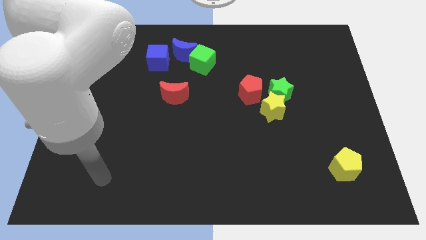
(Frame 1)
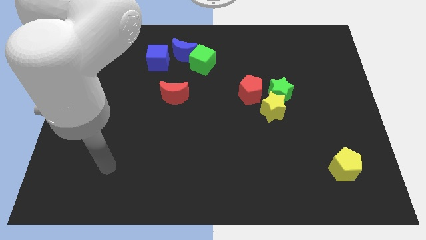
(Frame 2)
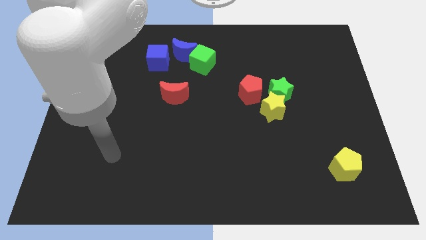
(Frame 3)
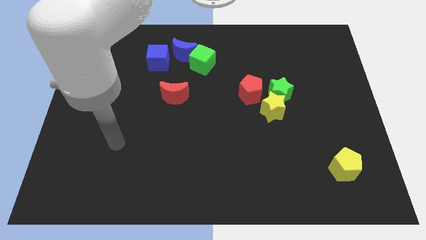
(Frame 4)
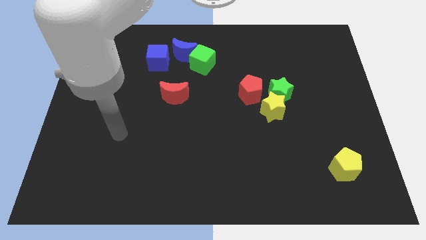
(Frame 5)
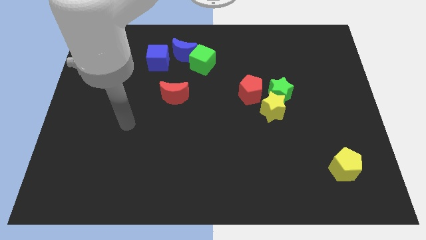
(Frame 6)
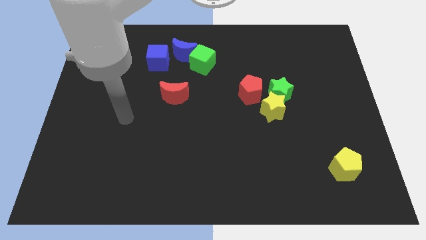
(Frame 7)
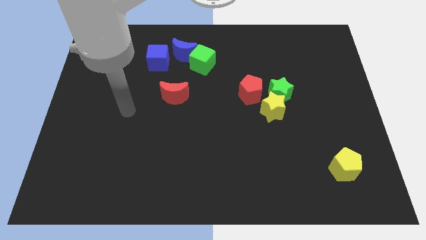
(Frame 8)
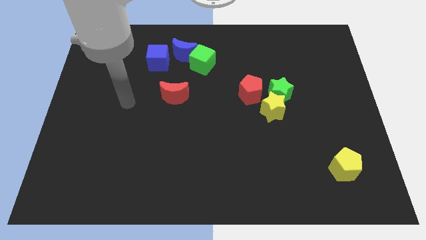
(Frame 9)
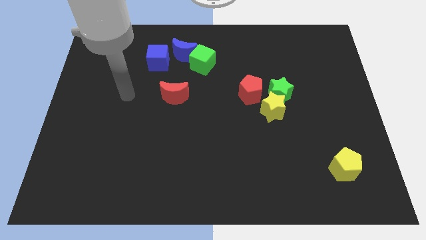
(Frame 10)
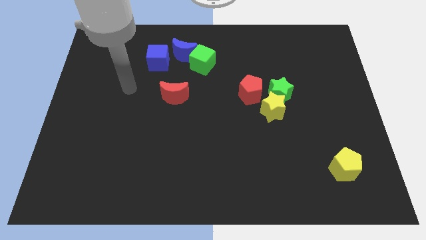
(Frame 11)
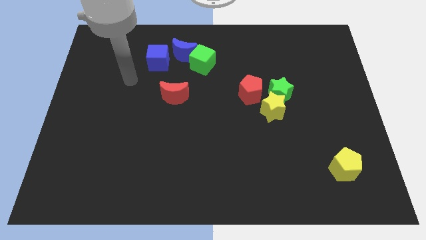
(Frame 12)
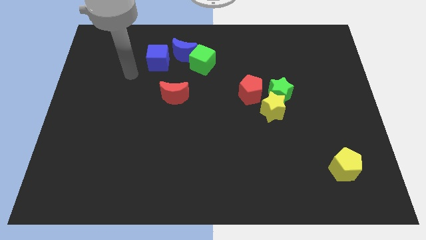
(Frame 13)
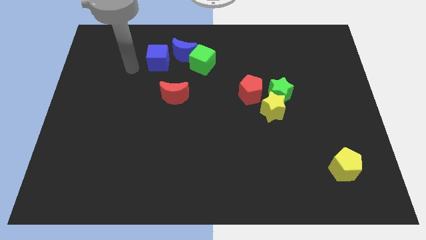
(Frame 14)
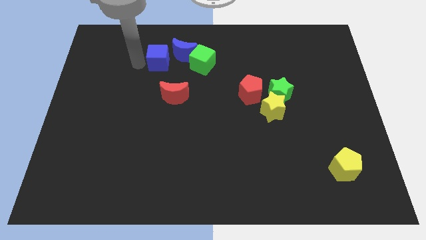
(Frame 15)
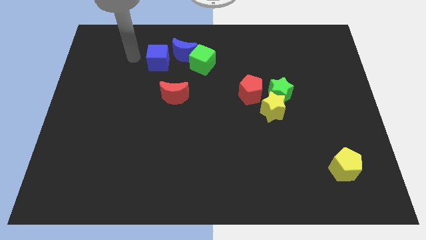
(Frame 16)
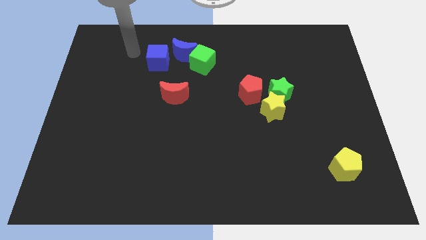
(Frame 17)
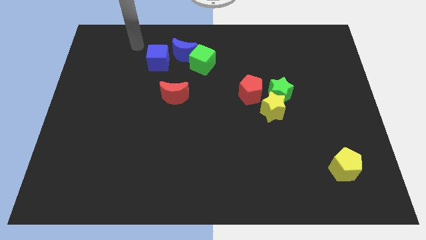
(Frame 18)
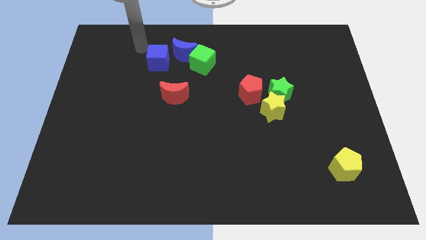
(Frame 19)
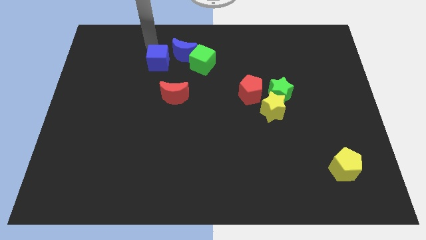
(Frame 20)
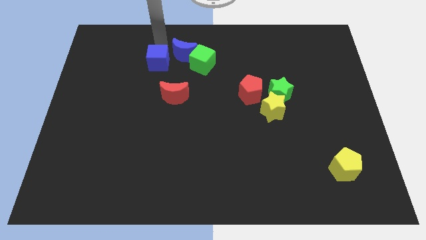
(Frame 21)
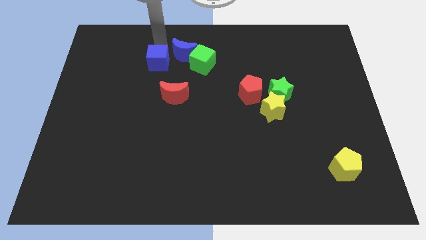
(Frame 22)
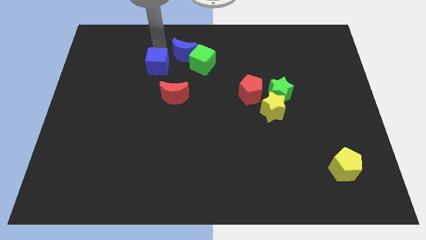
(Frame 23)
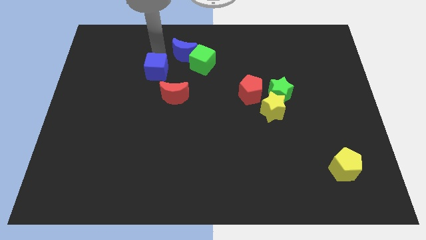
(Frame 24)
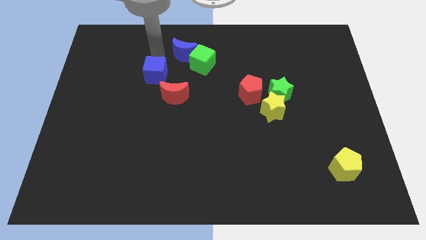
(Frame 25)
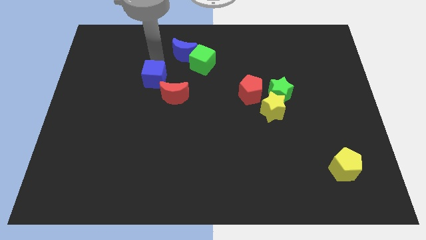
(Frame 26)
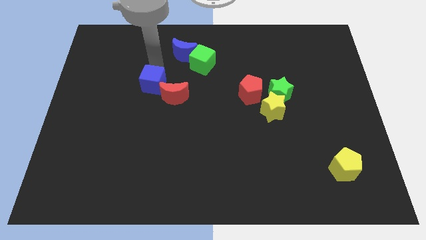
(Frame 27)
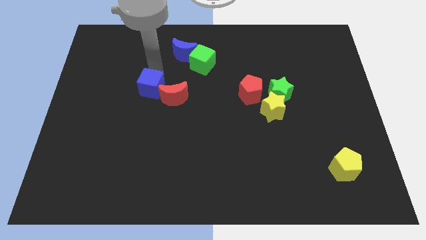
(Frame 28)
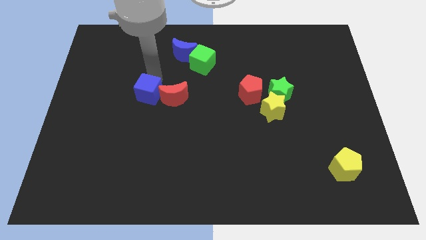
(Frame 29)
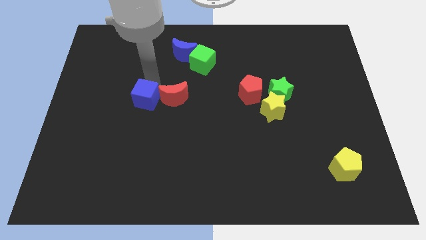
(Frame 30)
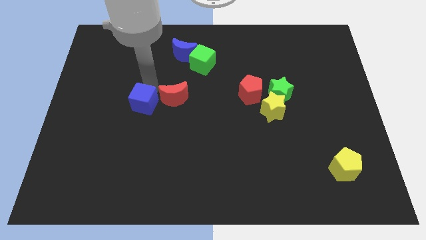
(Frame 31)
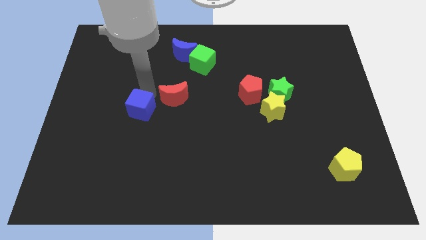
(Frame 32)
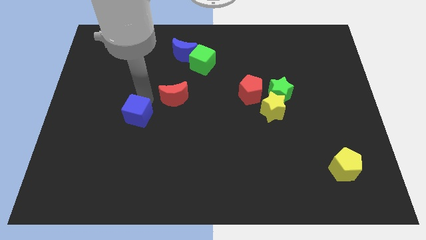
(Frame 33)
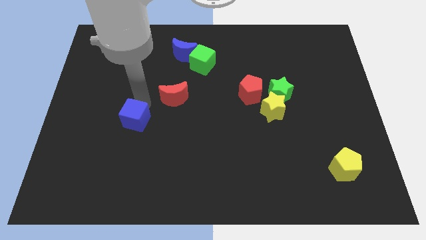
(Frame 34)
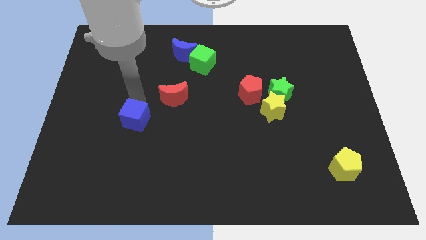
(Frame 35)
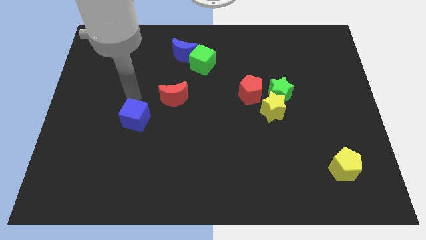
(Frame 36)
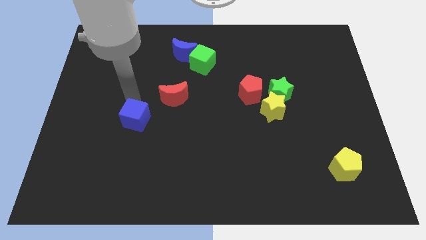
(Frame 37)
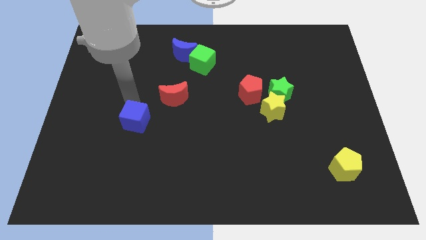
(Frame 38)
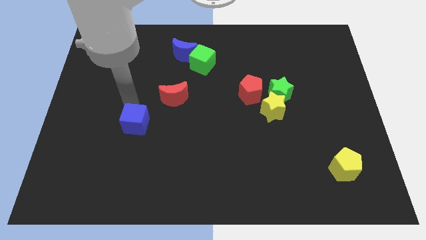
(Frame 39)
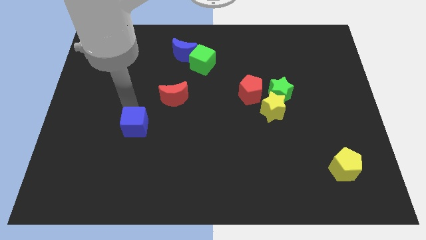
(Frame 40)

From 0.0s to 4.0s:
push the blue cube downwards

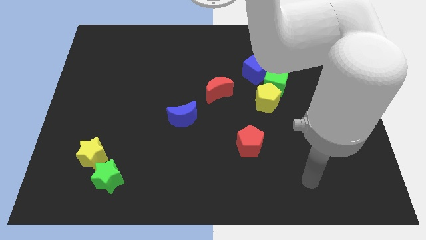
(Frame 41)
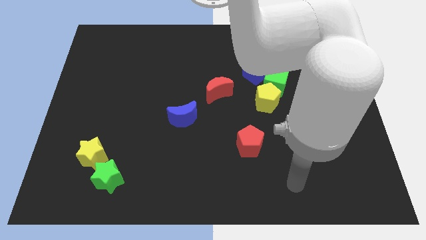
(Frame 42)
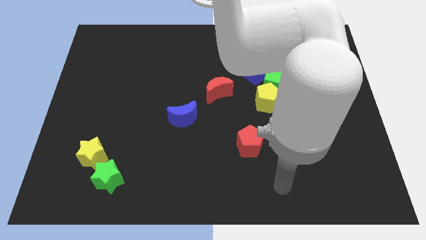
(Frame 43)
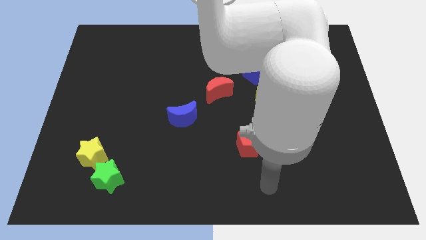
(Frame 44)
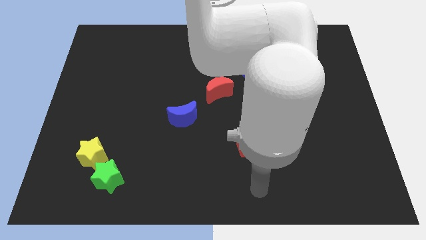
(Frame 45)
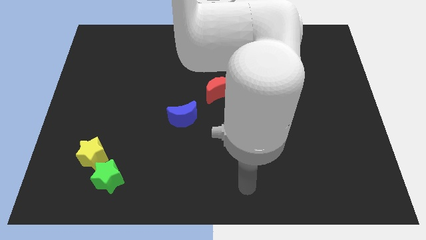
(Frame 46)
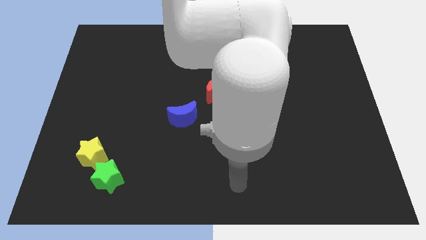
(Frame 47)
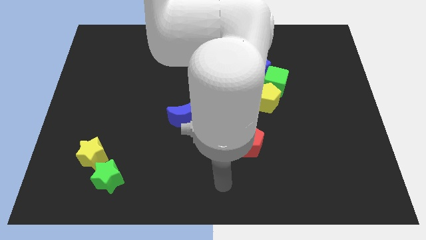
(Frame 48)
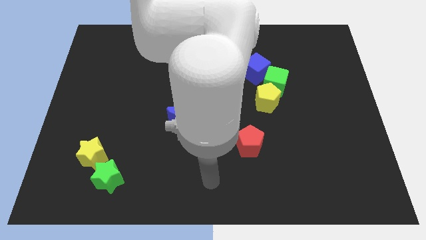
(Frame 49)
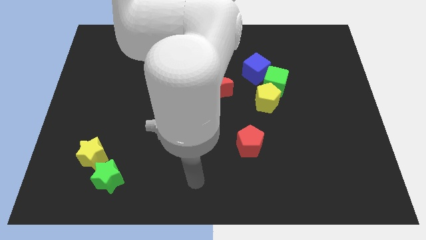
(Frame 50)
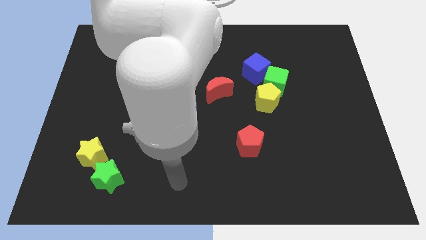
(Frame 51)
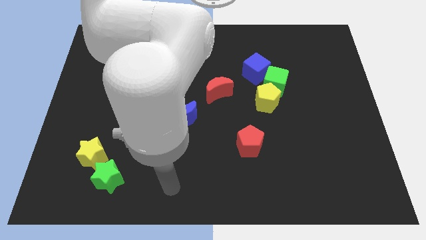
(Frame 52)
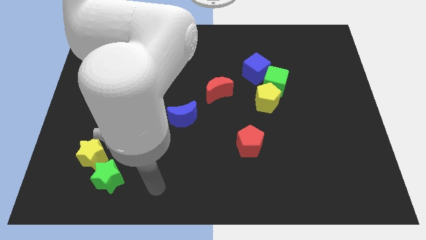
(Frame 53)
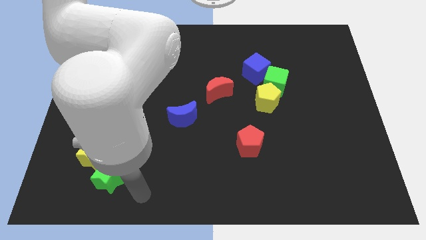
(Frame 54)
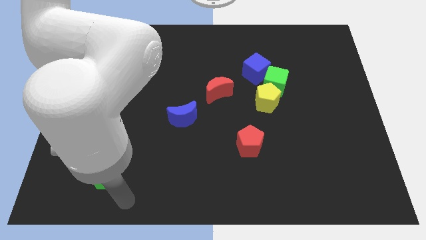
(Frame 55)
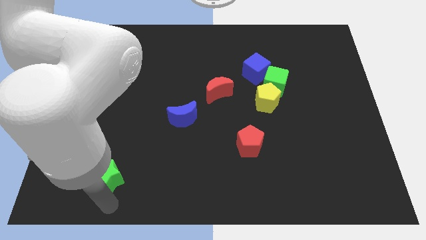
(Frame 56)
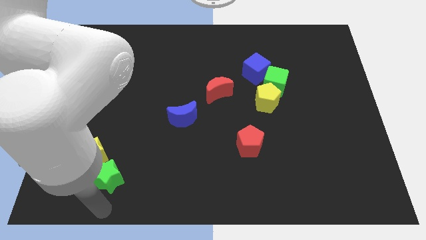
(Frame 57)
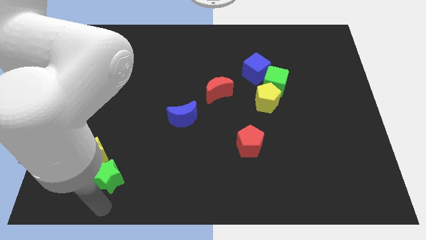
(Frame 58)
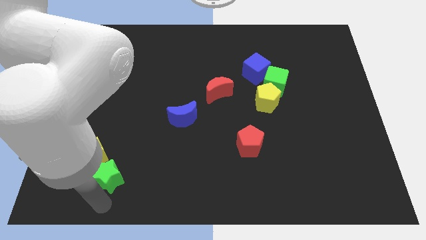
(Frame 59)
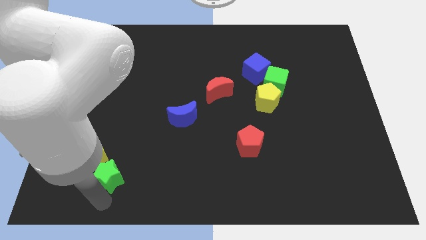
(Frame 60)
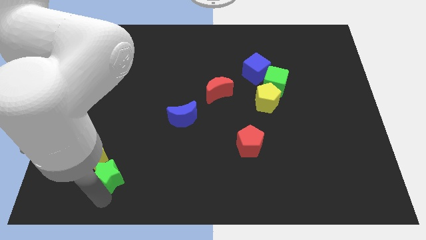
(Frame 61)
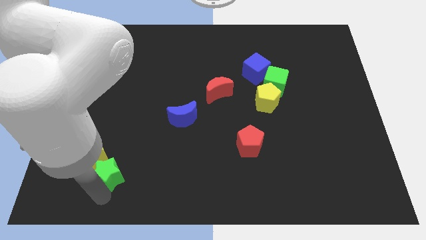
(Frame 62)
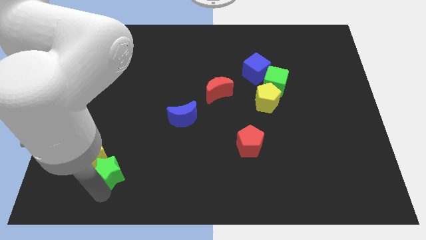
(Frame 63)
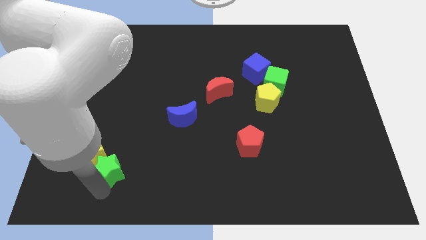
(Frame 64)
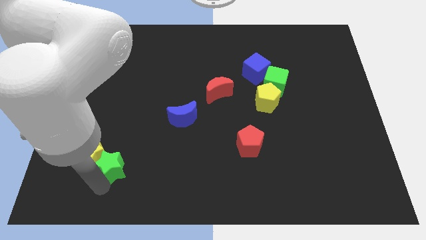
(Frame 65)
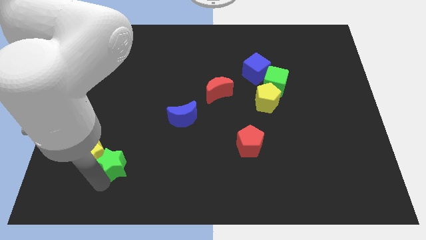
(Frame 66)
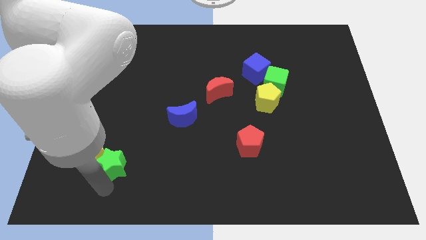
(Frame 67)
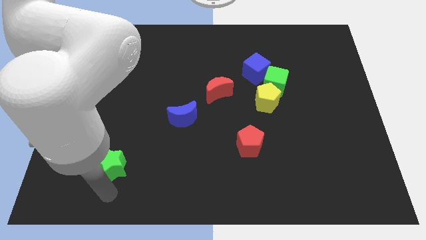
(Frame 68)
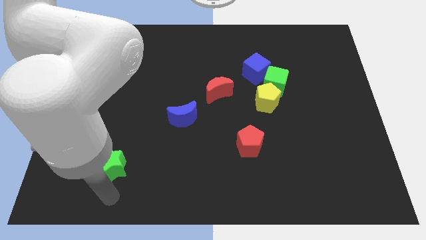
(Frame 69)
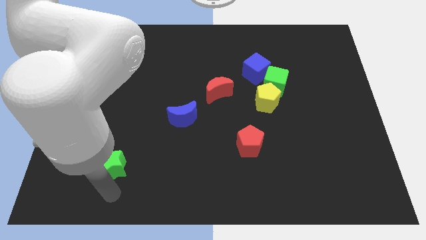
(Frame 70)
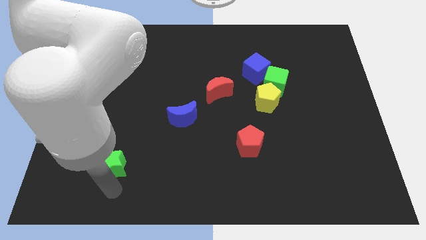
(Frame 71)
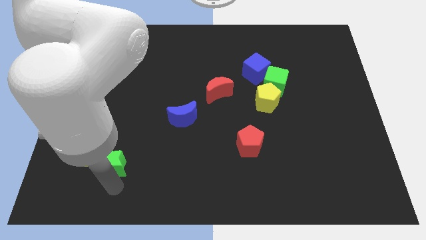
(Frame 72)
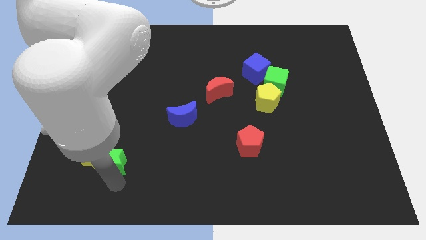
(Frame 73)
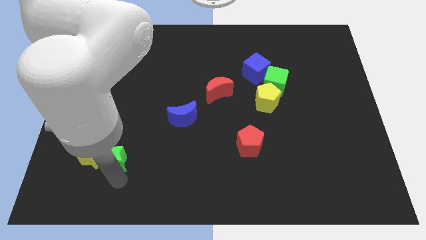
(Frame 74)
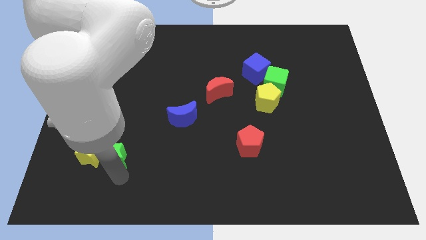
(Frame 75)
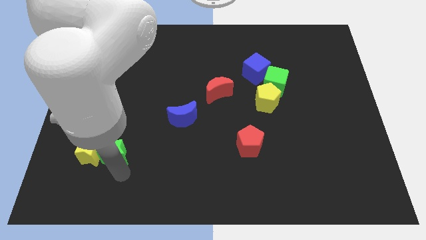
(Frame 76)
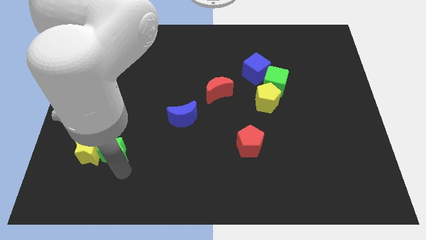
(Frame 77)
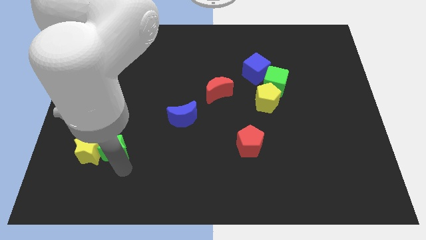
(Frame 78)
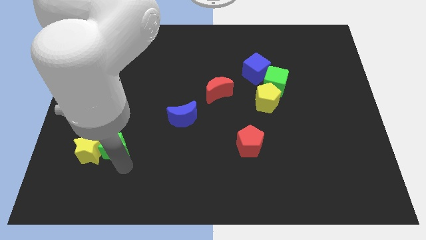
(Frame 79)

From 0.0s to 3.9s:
push the green star a little bit upwards

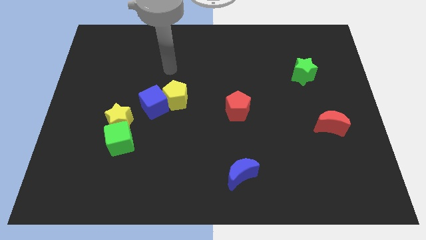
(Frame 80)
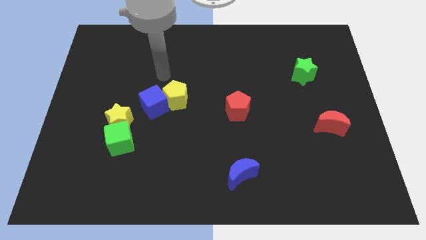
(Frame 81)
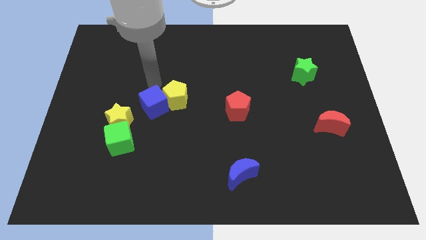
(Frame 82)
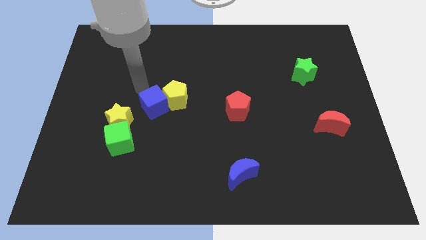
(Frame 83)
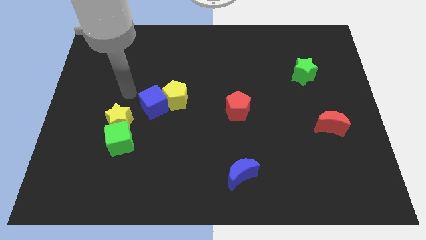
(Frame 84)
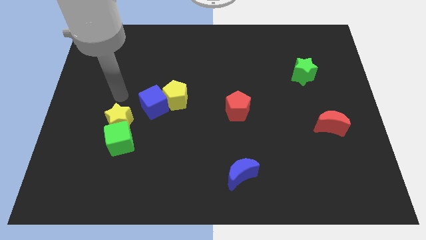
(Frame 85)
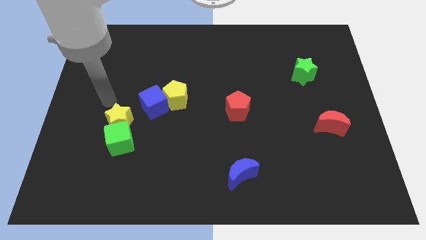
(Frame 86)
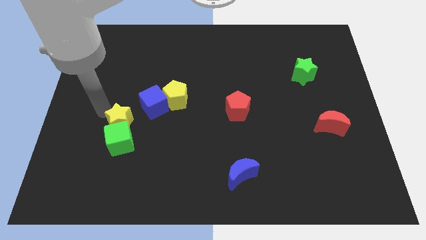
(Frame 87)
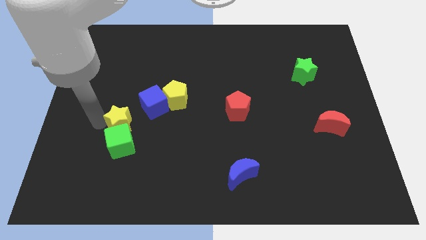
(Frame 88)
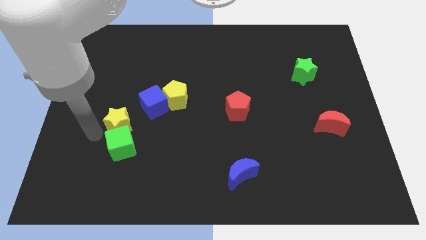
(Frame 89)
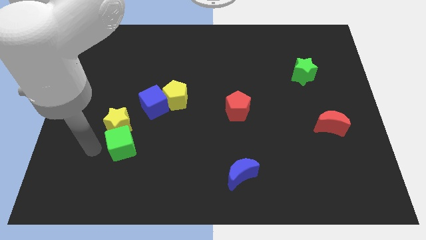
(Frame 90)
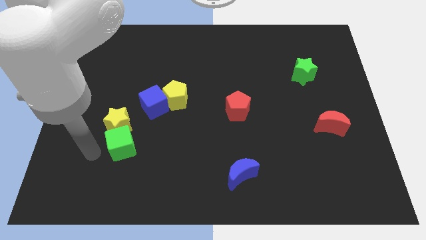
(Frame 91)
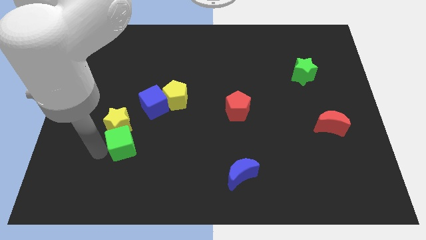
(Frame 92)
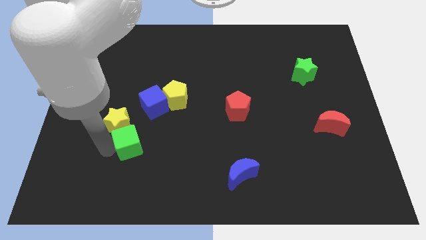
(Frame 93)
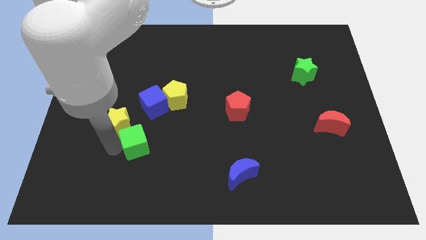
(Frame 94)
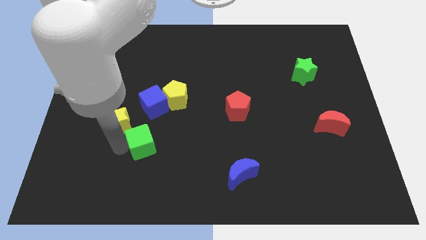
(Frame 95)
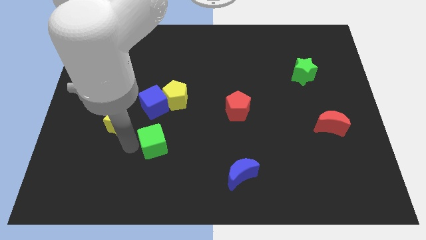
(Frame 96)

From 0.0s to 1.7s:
move the green cube to the right somewhat
